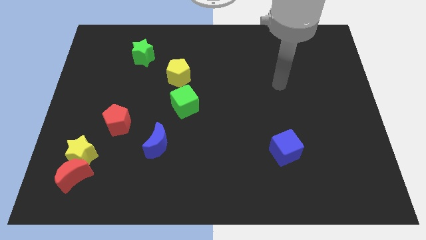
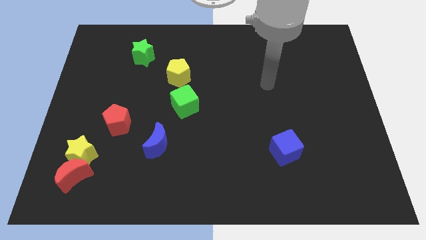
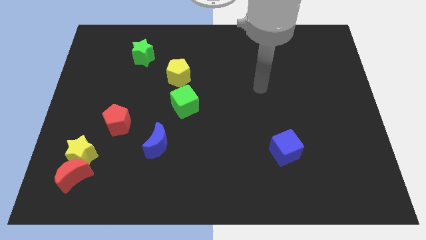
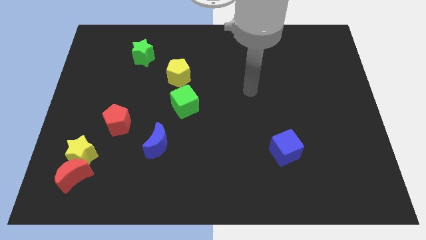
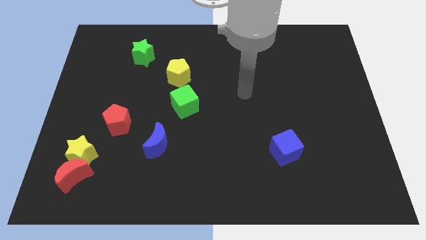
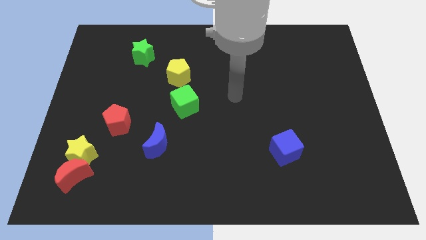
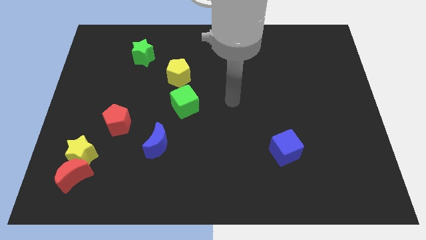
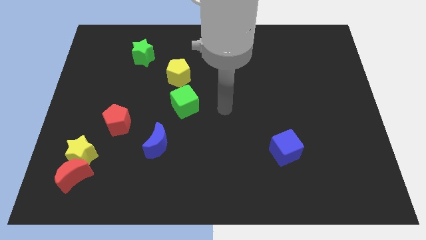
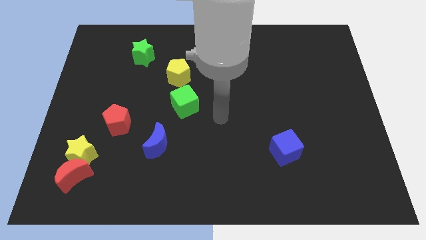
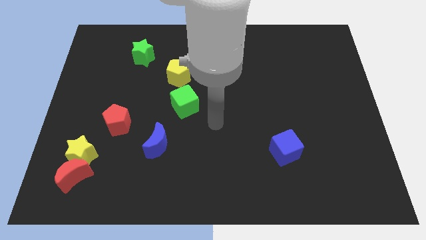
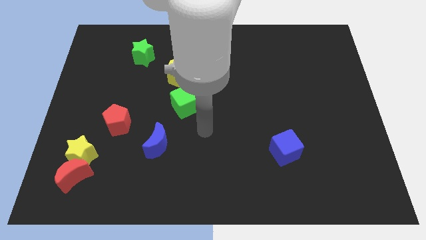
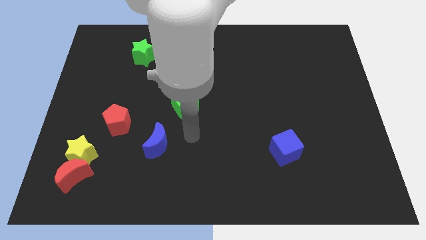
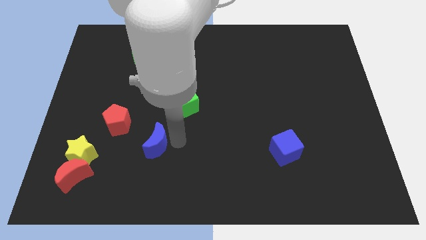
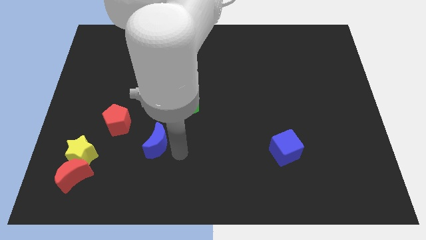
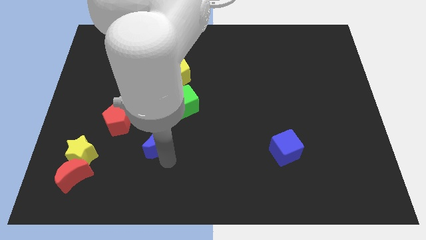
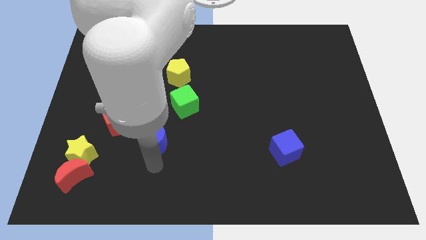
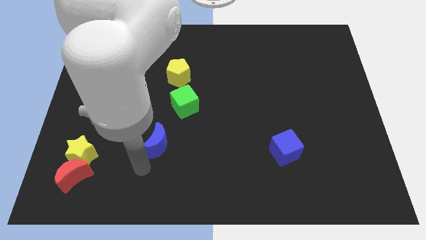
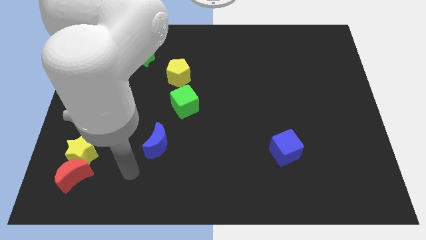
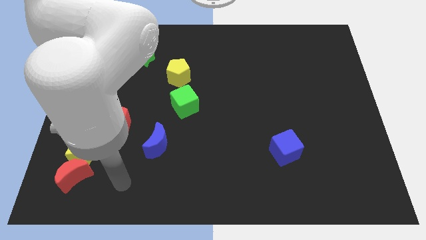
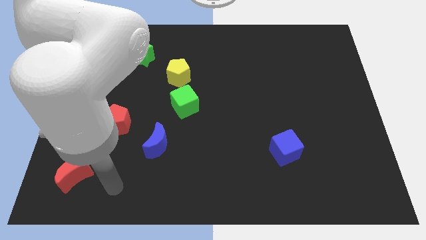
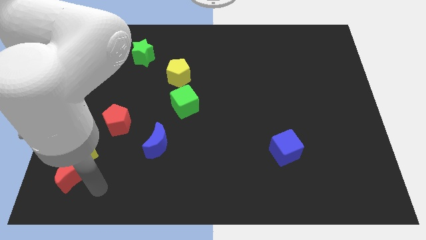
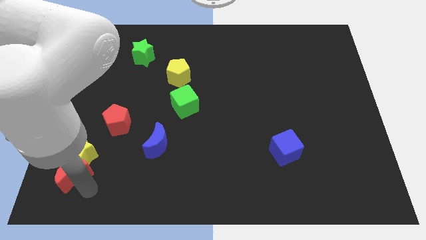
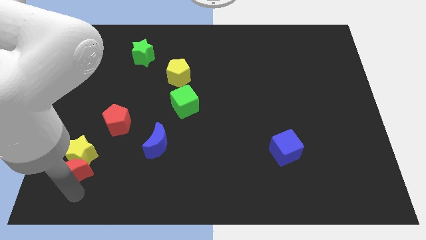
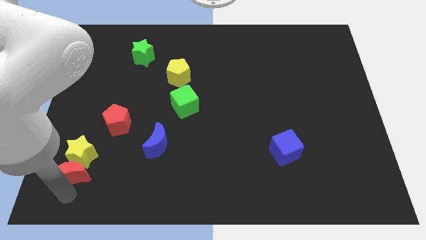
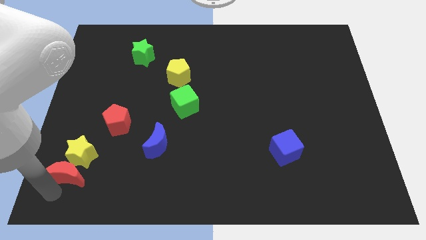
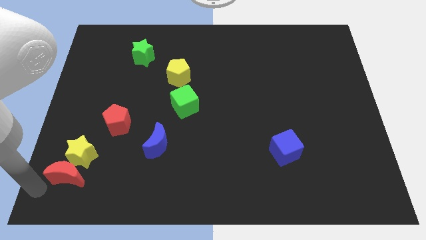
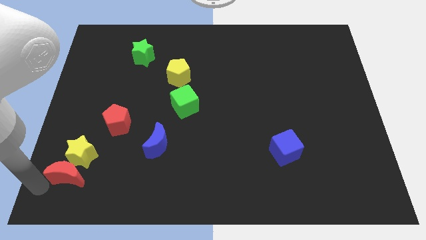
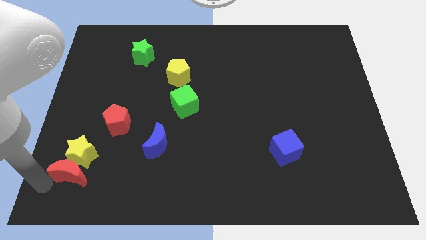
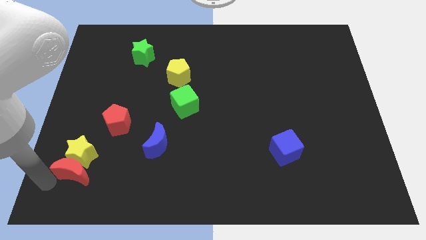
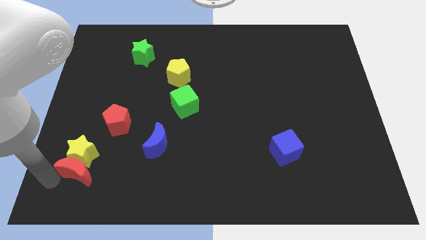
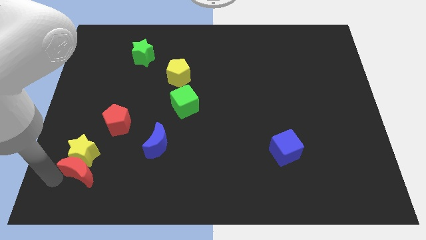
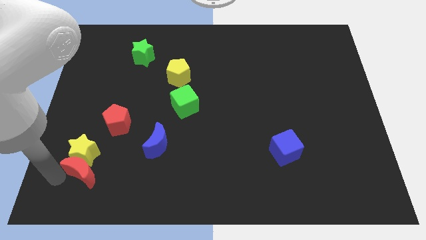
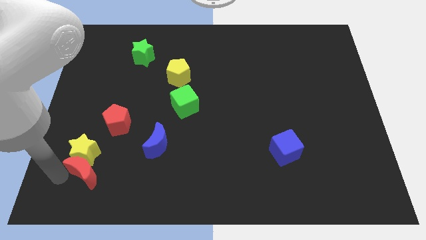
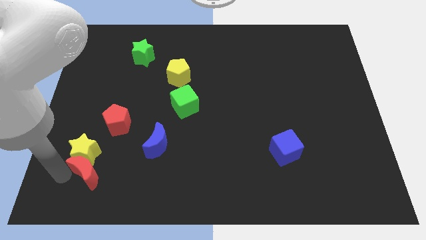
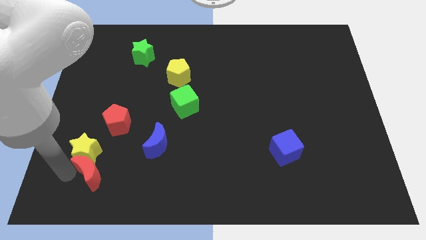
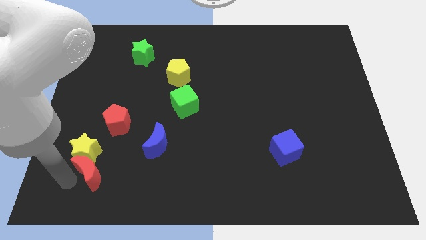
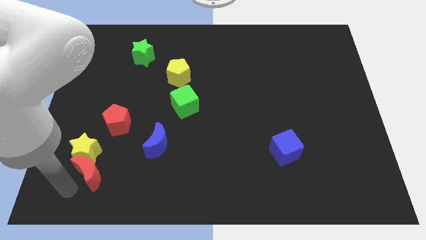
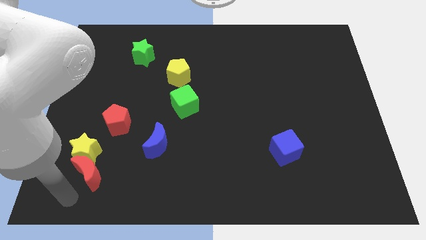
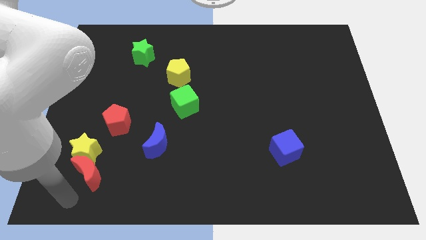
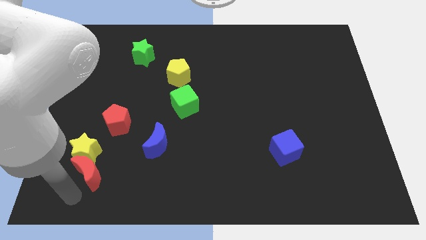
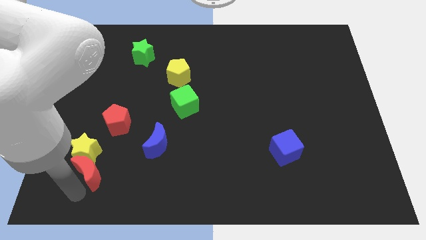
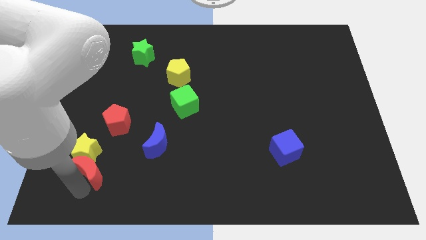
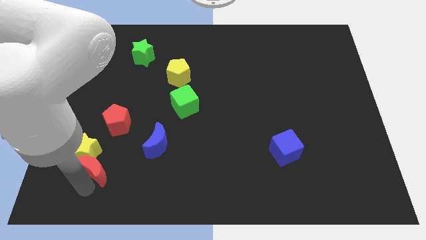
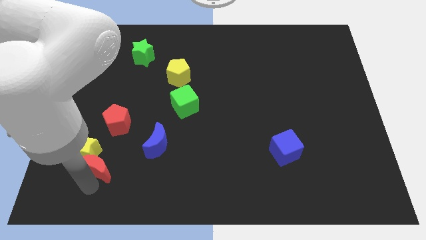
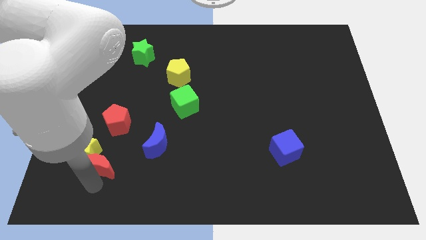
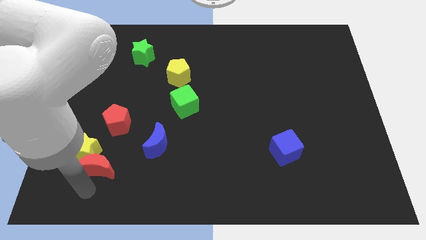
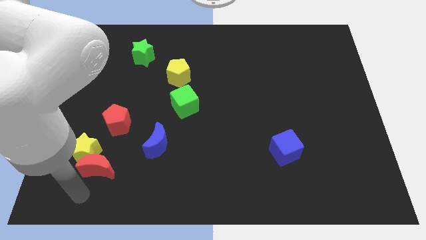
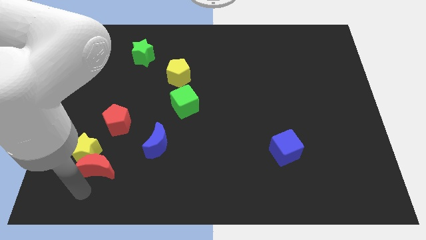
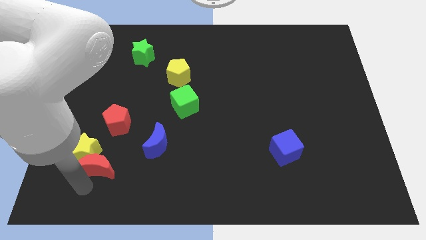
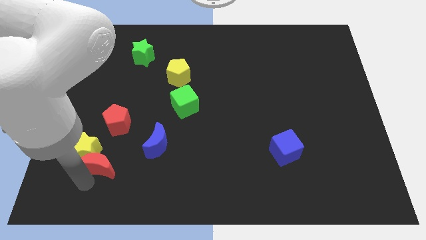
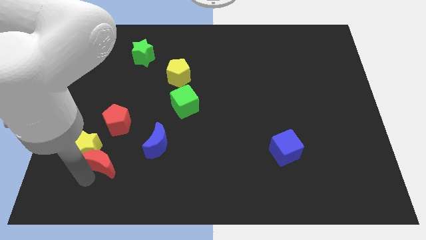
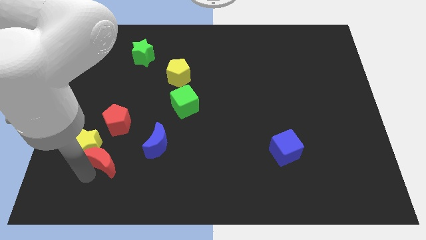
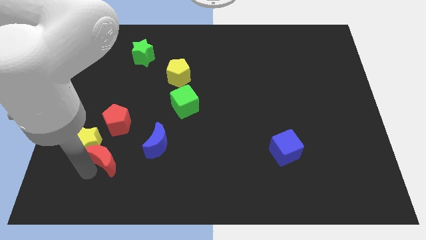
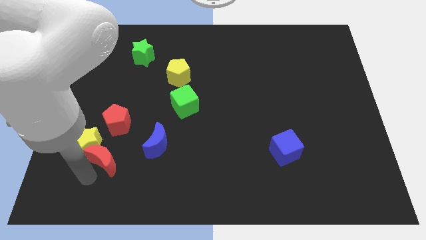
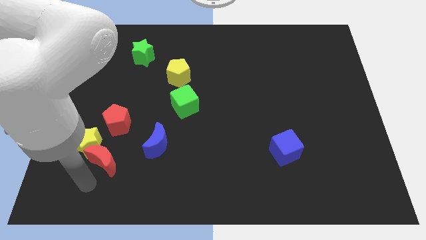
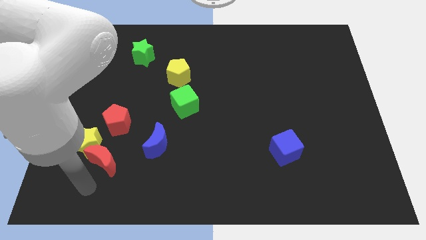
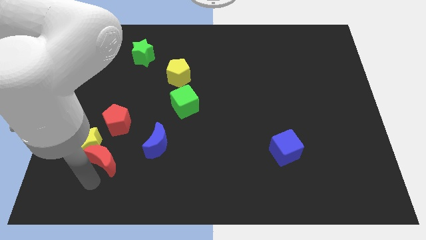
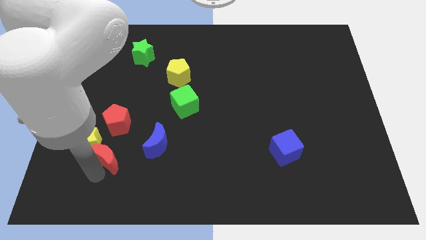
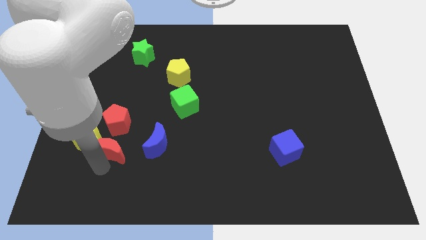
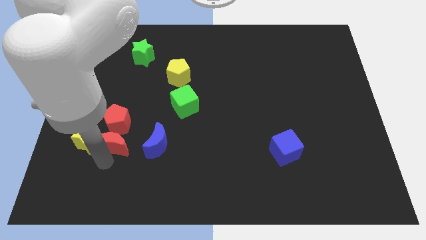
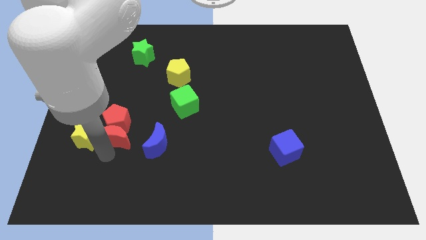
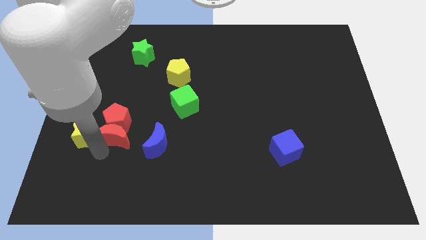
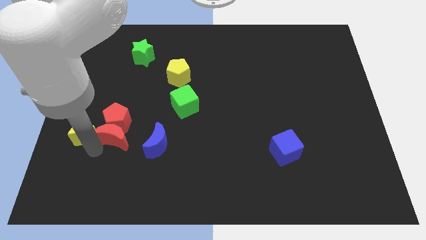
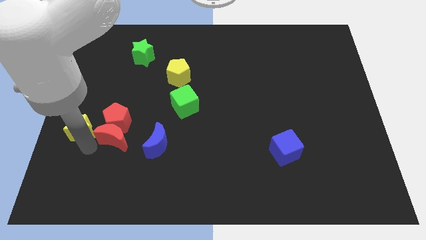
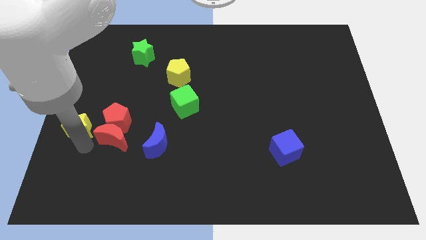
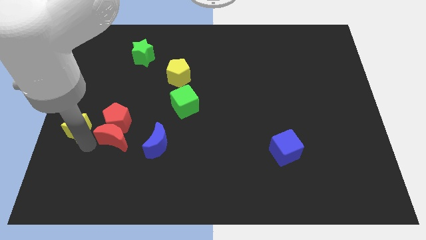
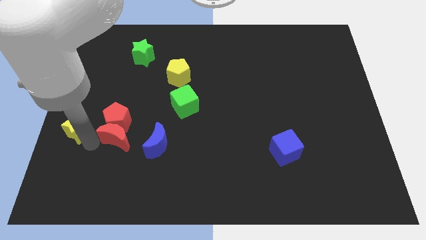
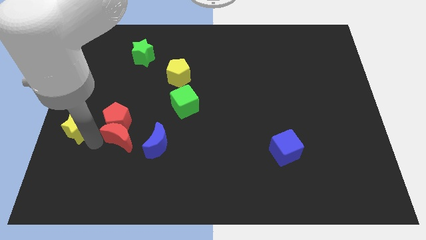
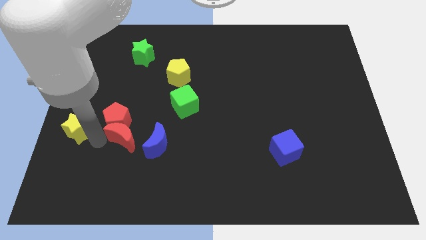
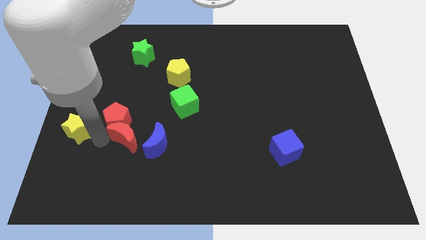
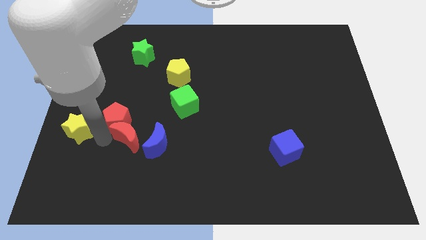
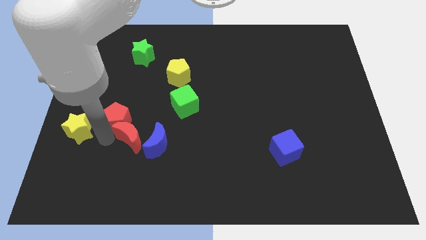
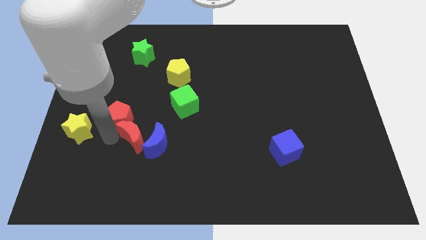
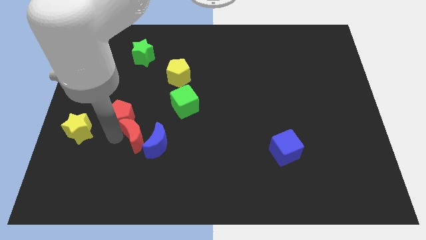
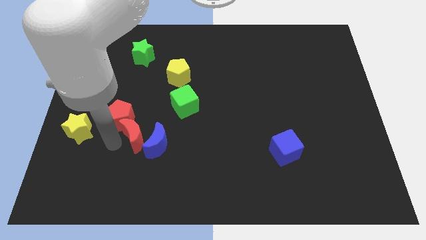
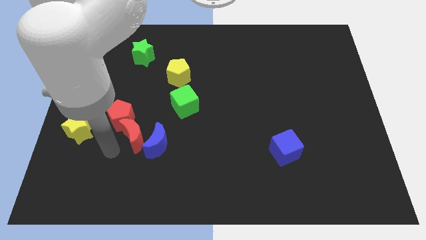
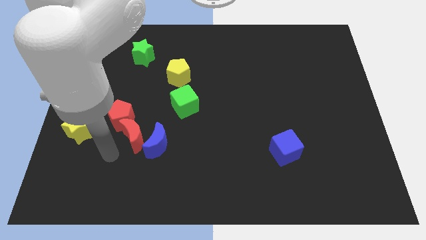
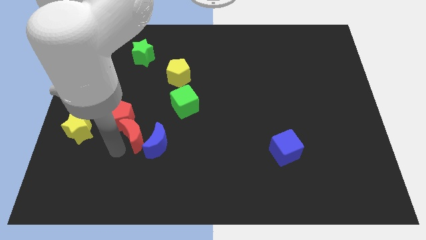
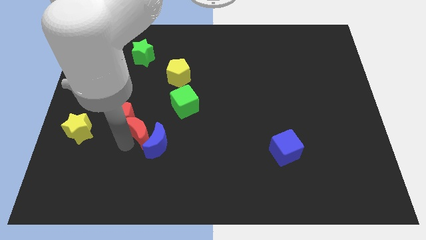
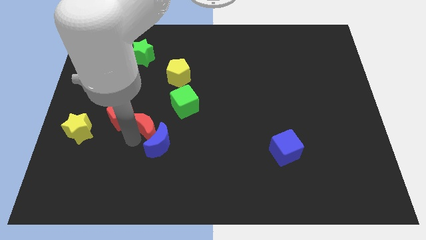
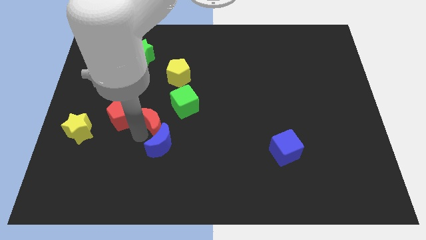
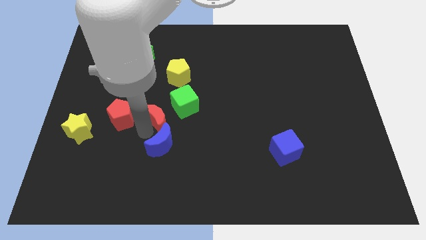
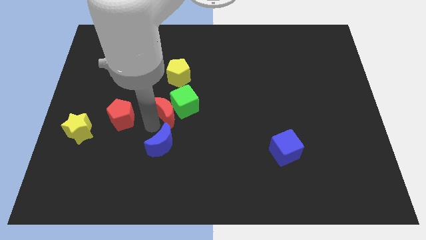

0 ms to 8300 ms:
put the red moon close to the green cube

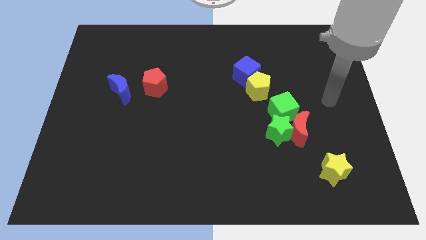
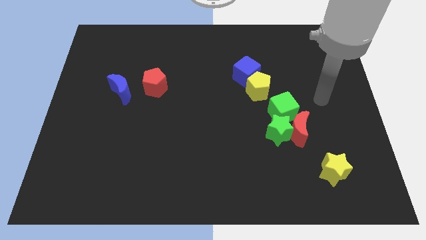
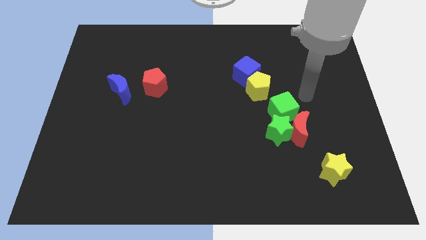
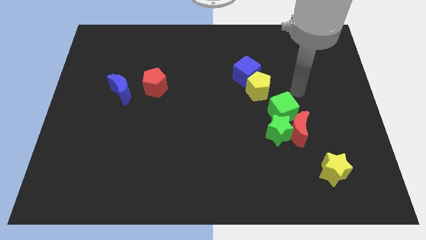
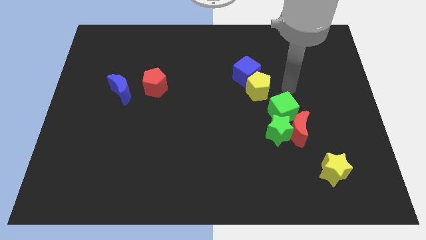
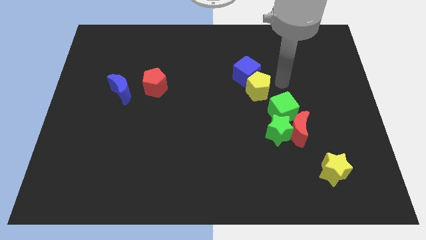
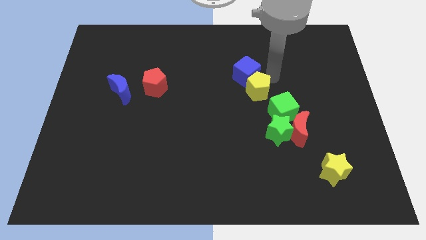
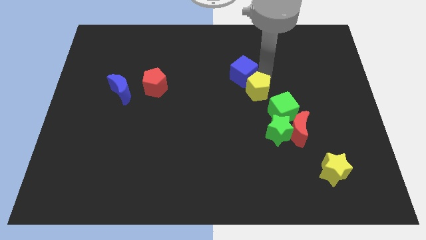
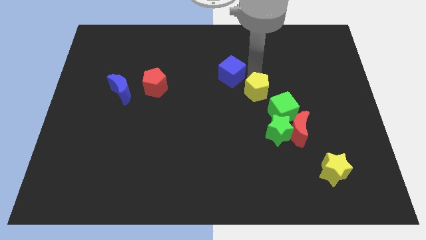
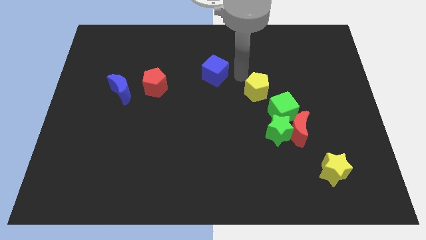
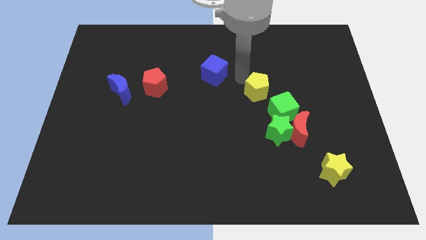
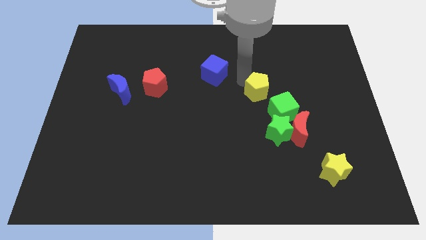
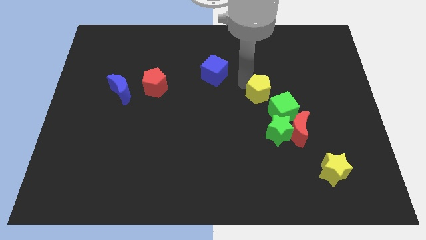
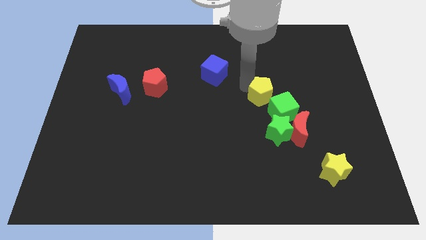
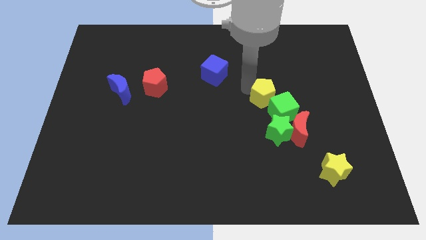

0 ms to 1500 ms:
move the yellow pentagon to the green cube
